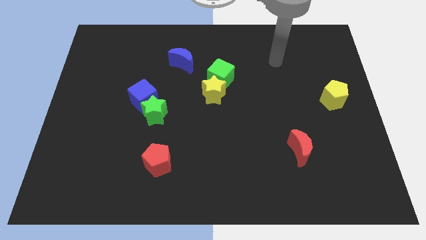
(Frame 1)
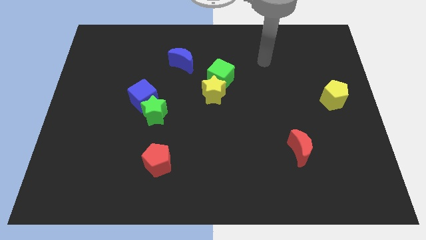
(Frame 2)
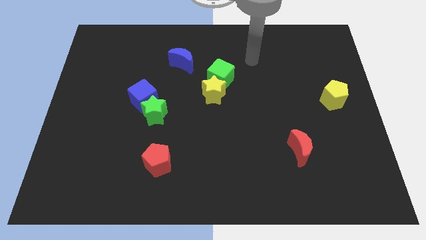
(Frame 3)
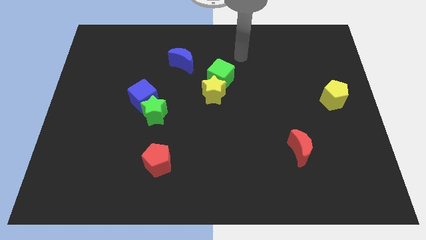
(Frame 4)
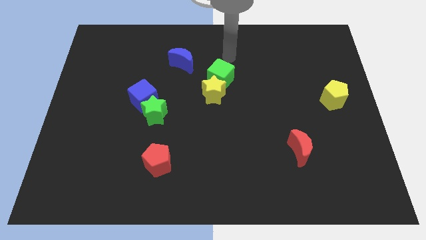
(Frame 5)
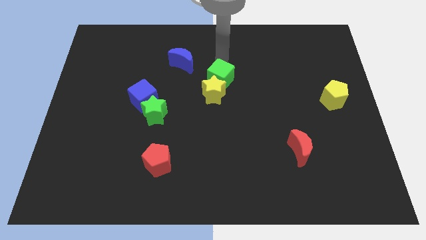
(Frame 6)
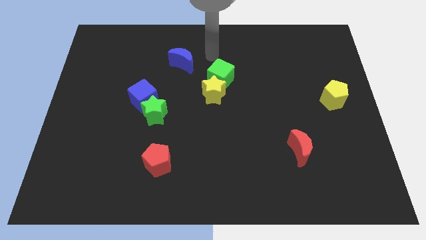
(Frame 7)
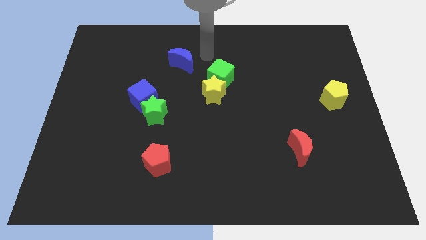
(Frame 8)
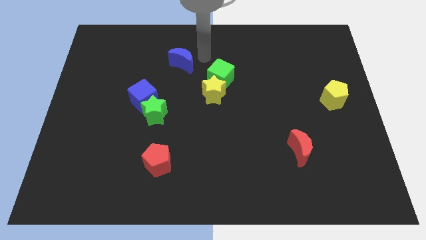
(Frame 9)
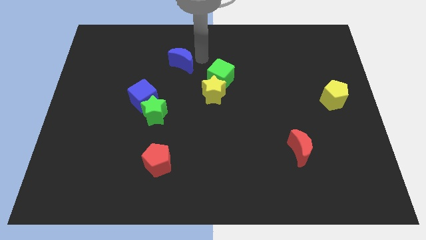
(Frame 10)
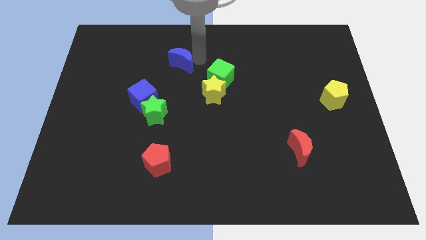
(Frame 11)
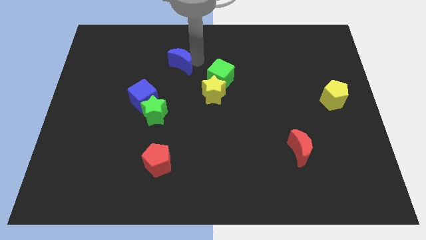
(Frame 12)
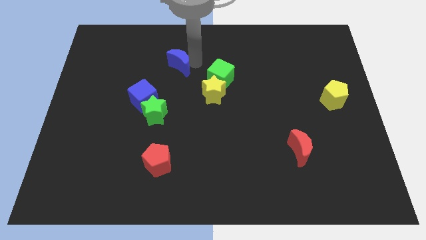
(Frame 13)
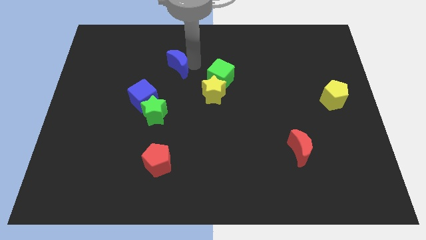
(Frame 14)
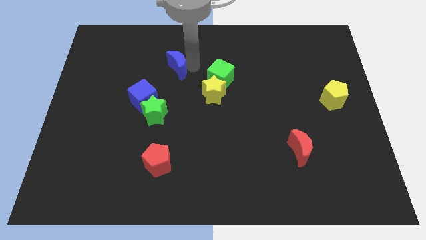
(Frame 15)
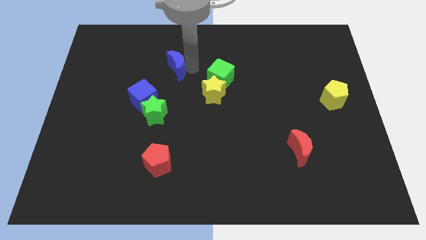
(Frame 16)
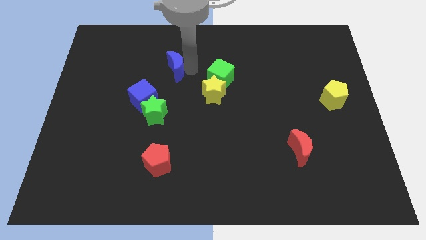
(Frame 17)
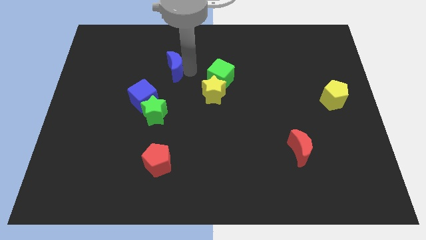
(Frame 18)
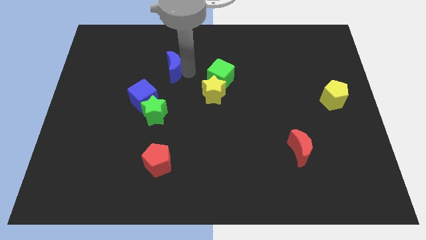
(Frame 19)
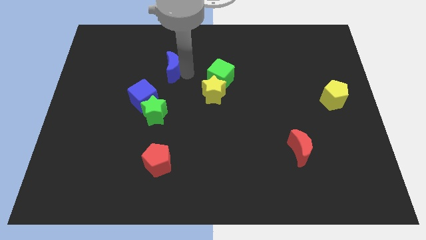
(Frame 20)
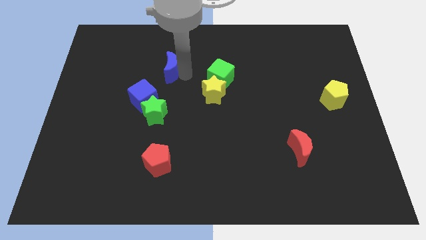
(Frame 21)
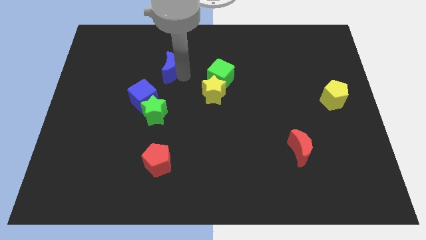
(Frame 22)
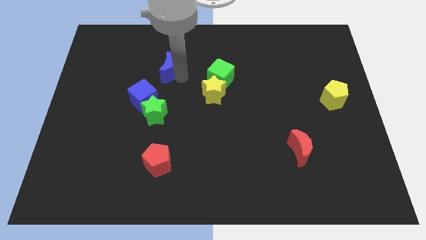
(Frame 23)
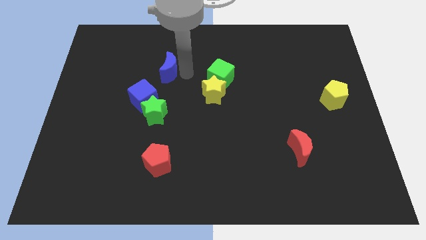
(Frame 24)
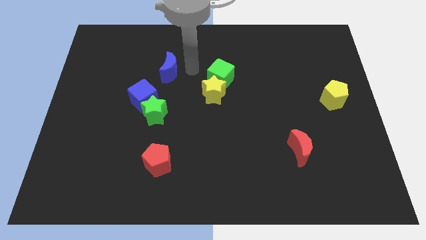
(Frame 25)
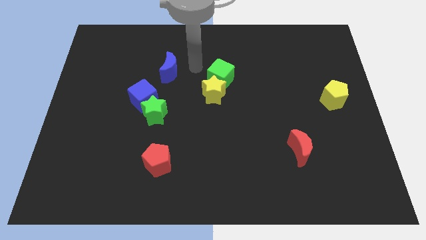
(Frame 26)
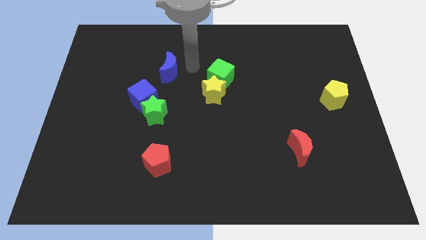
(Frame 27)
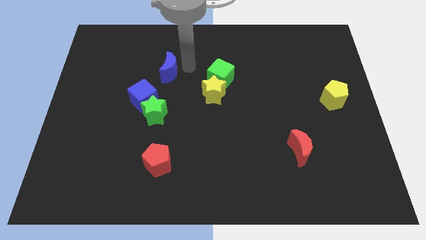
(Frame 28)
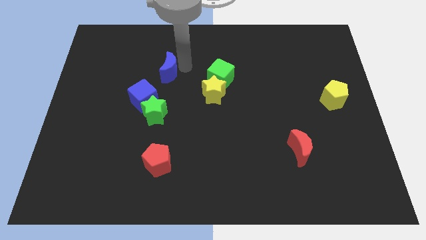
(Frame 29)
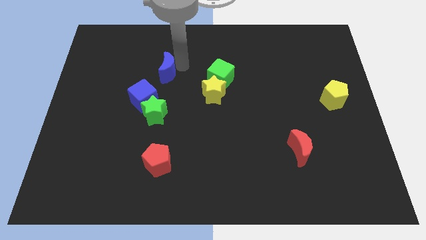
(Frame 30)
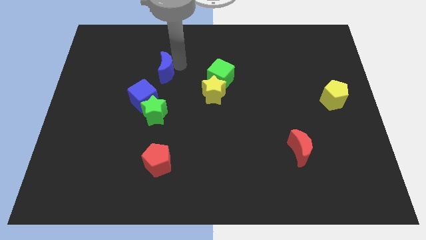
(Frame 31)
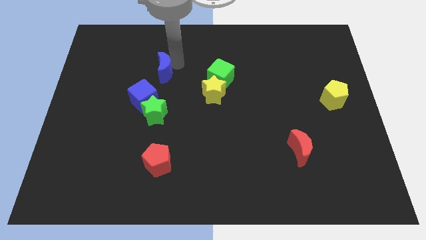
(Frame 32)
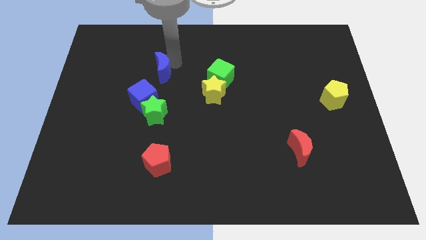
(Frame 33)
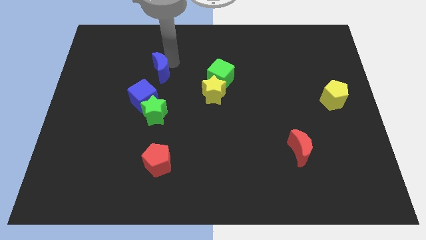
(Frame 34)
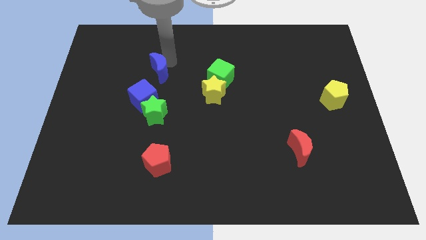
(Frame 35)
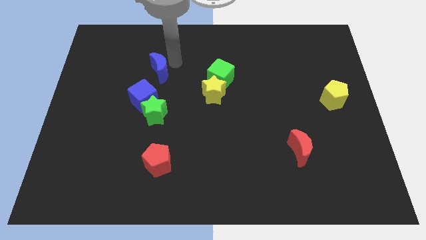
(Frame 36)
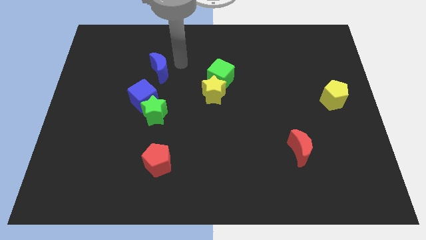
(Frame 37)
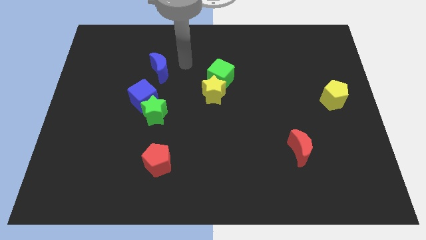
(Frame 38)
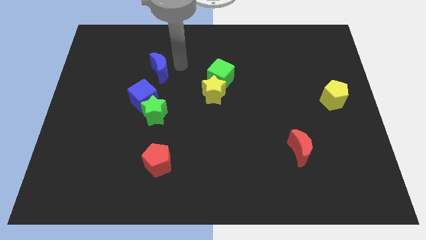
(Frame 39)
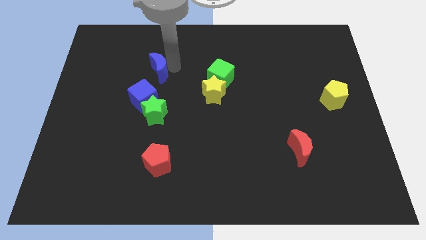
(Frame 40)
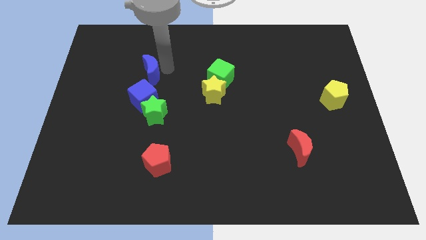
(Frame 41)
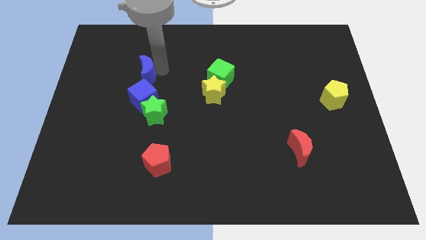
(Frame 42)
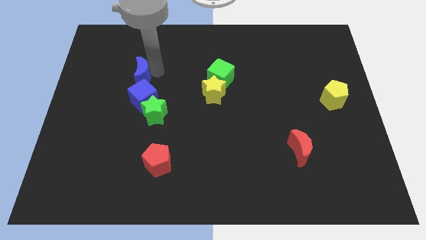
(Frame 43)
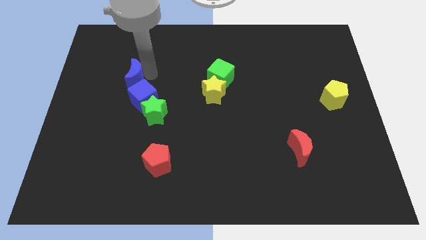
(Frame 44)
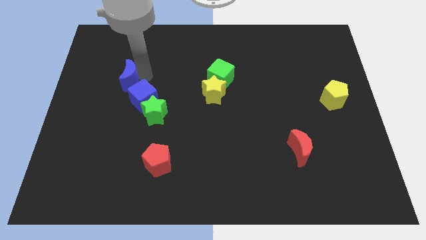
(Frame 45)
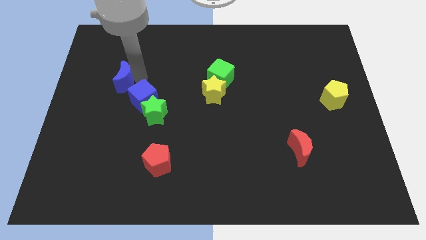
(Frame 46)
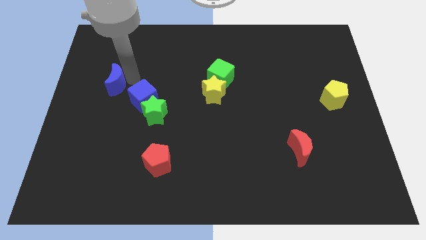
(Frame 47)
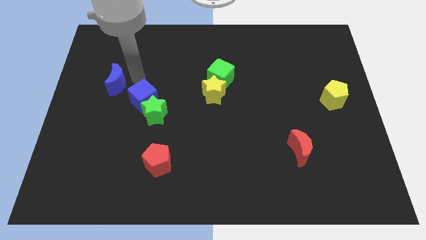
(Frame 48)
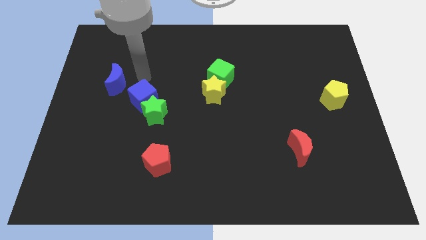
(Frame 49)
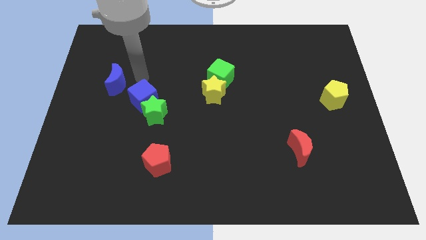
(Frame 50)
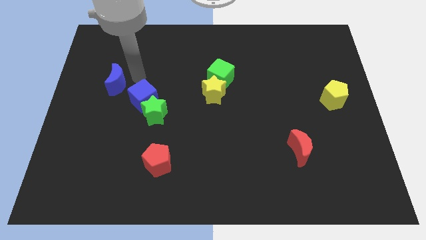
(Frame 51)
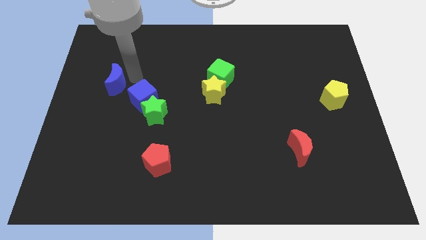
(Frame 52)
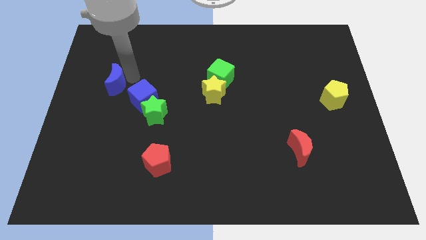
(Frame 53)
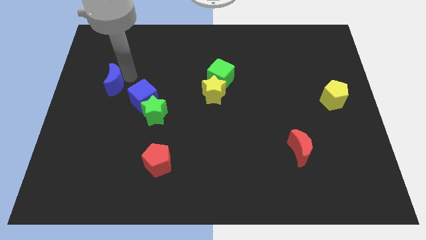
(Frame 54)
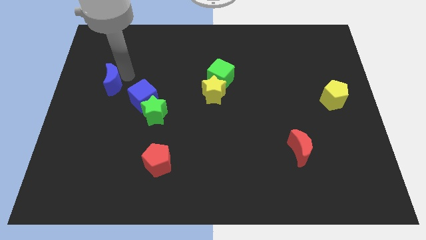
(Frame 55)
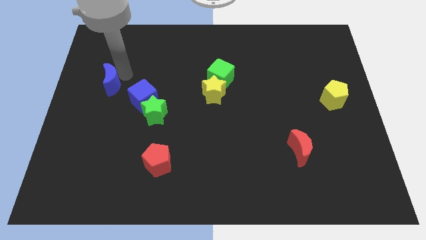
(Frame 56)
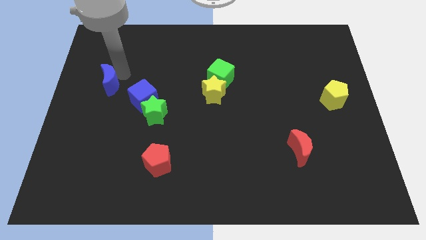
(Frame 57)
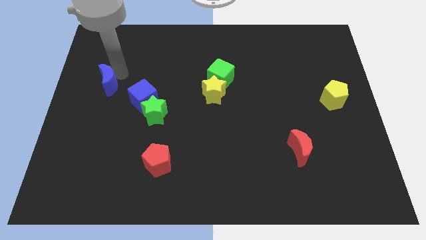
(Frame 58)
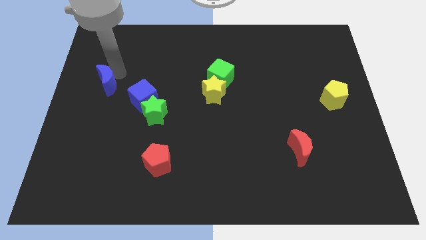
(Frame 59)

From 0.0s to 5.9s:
push the blue moon to the center left

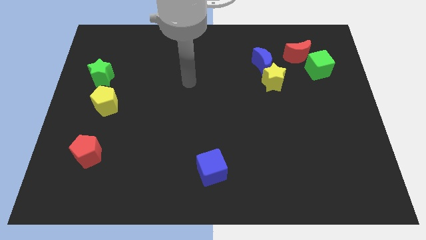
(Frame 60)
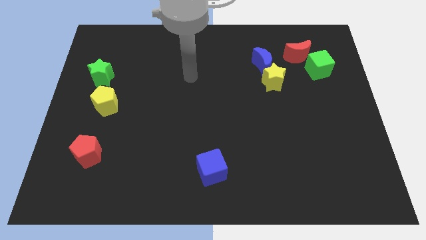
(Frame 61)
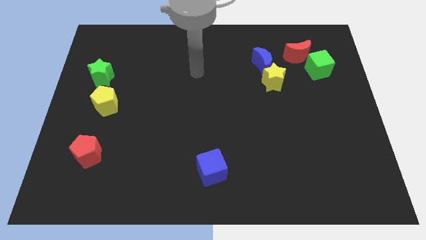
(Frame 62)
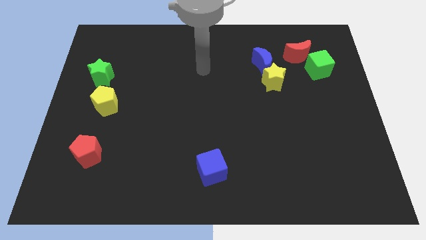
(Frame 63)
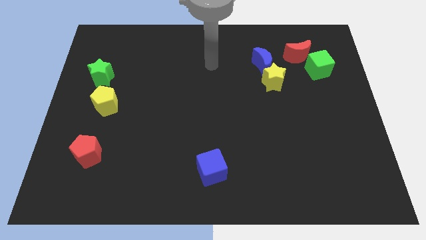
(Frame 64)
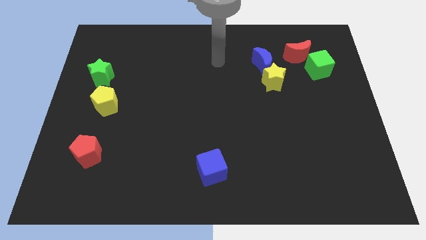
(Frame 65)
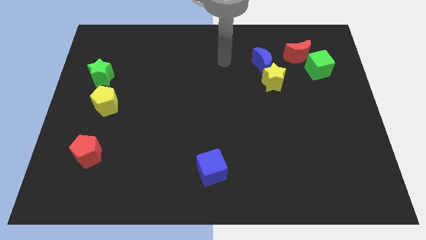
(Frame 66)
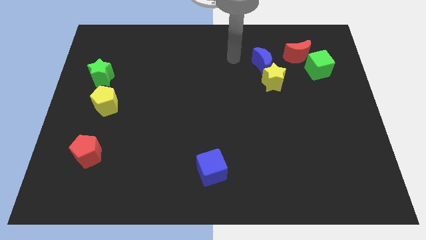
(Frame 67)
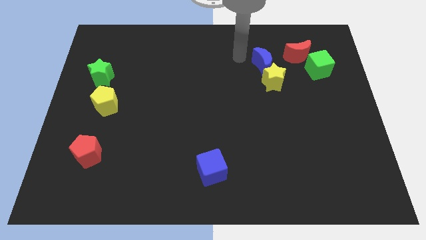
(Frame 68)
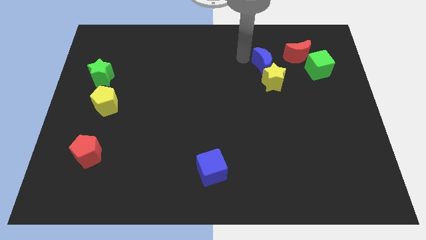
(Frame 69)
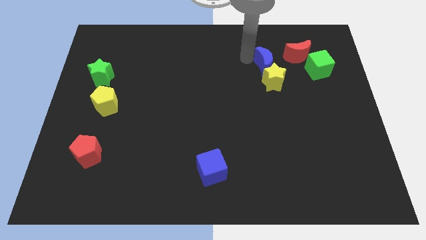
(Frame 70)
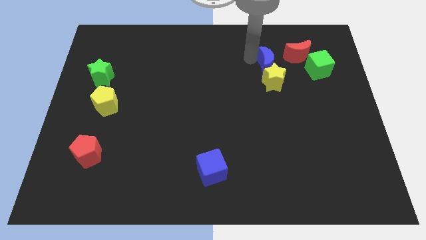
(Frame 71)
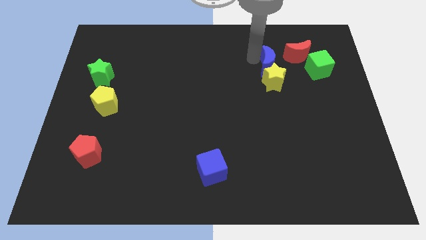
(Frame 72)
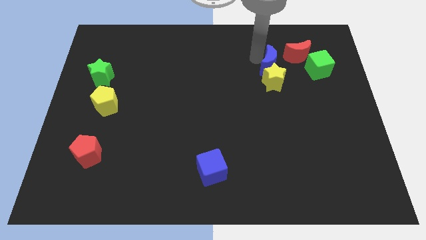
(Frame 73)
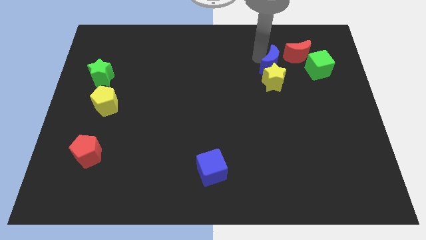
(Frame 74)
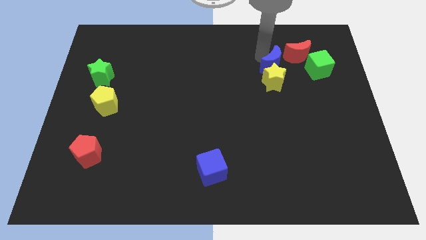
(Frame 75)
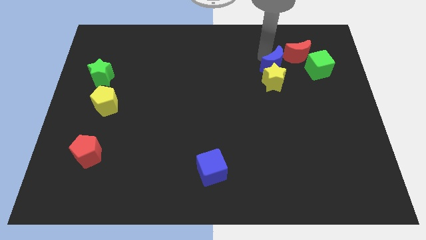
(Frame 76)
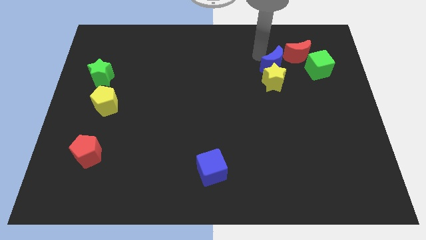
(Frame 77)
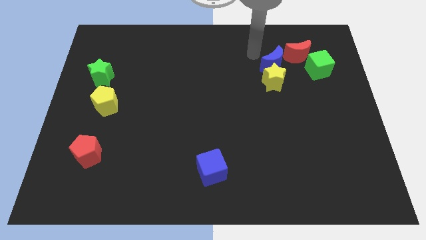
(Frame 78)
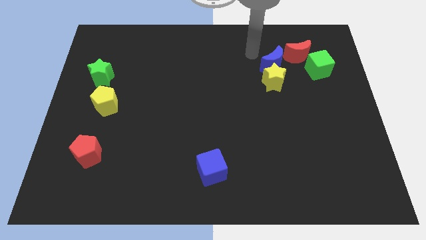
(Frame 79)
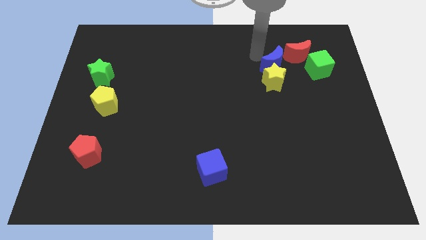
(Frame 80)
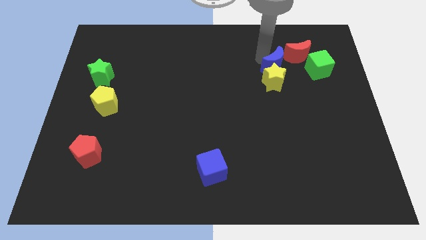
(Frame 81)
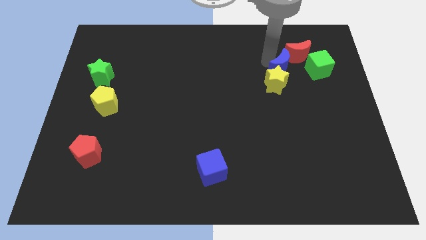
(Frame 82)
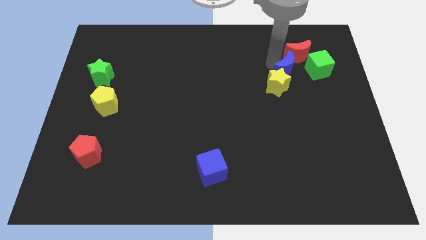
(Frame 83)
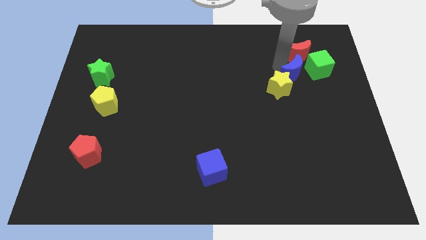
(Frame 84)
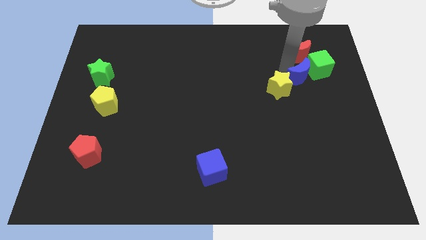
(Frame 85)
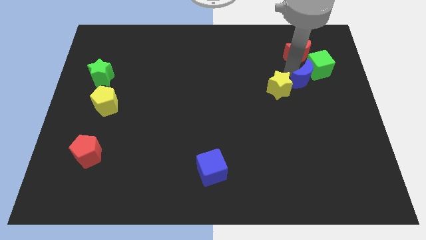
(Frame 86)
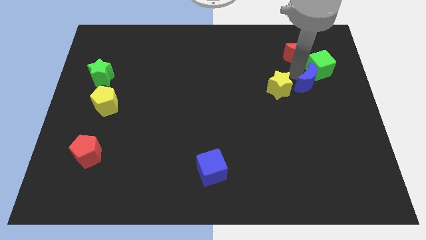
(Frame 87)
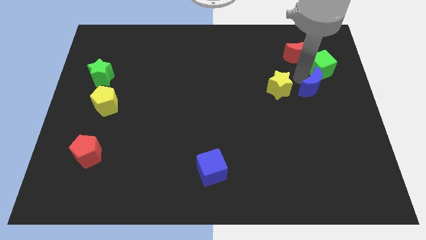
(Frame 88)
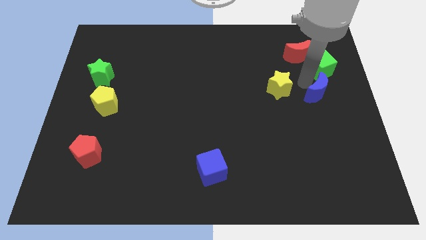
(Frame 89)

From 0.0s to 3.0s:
move the blue moon to the right side
